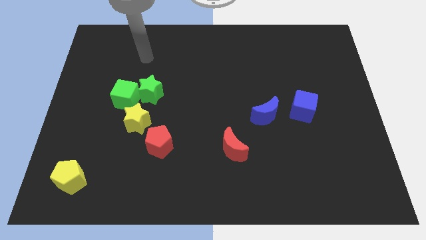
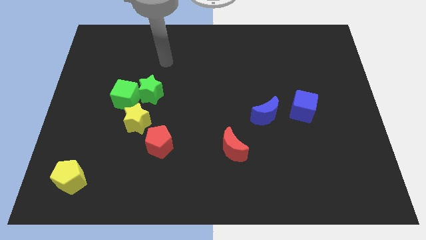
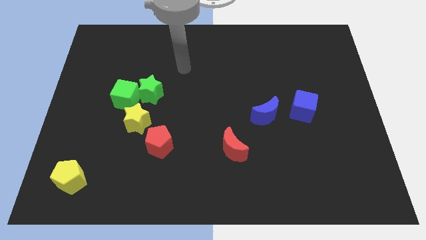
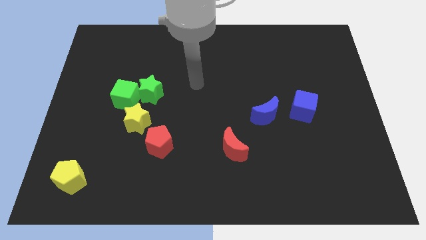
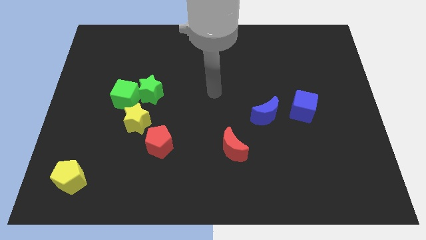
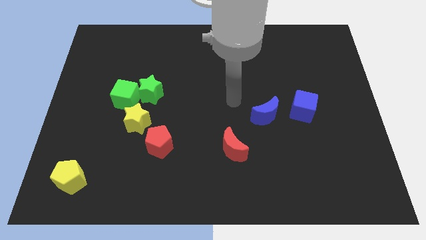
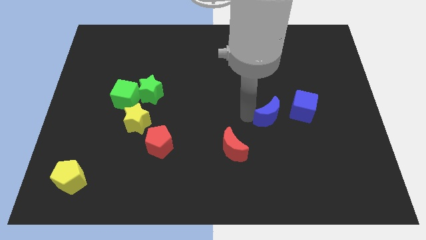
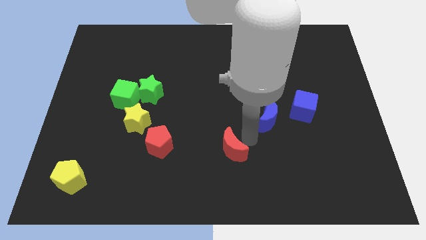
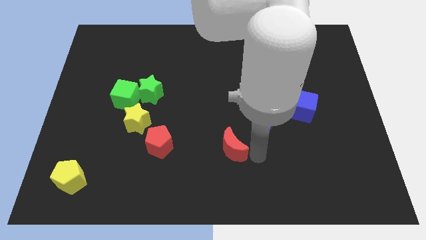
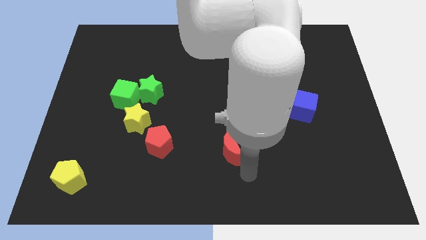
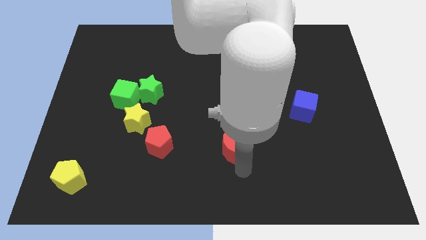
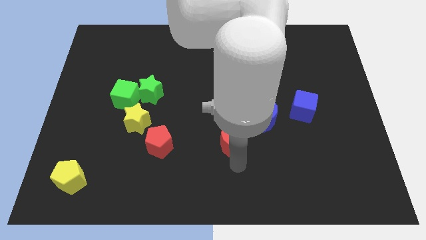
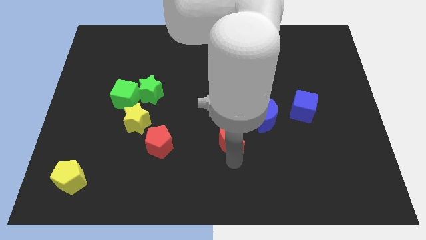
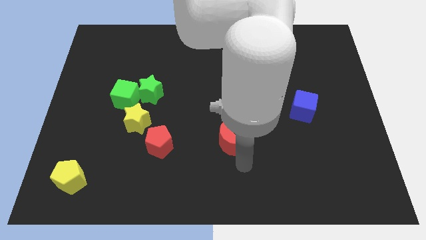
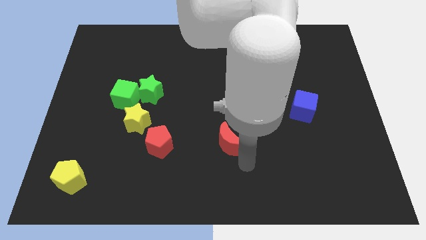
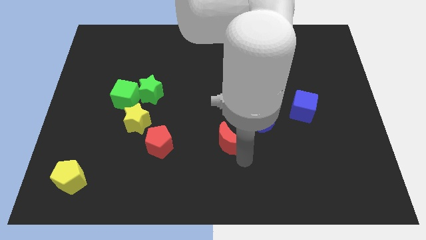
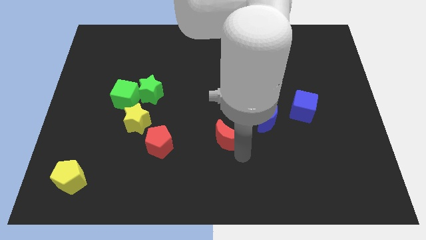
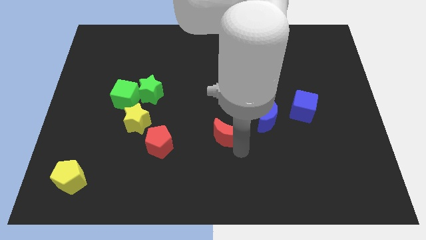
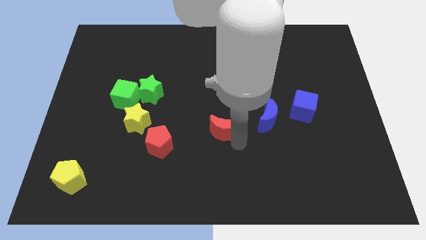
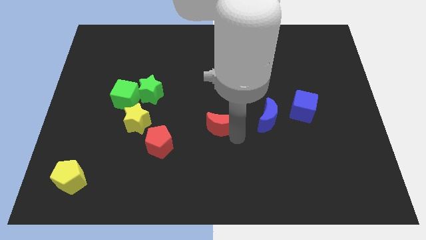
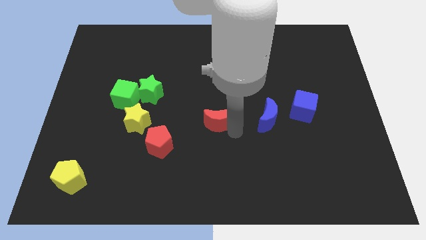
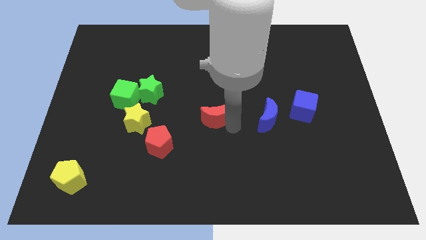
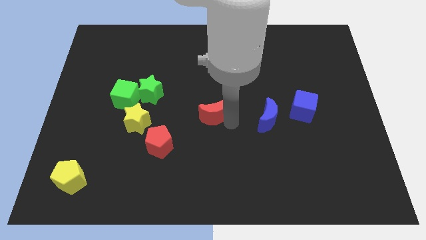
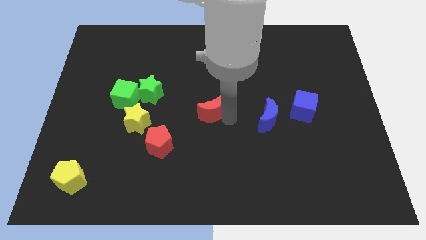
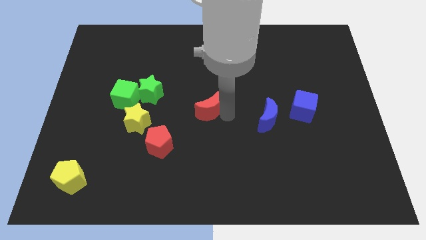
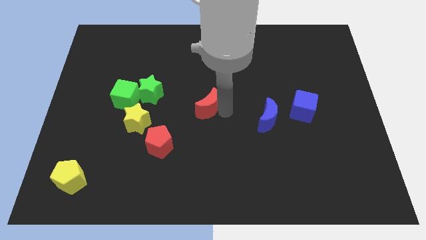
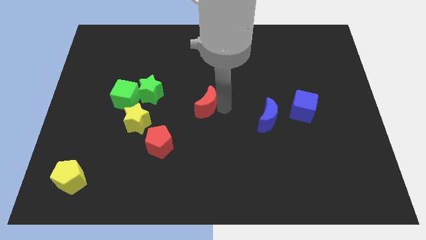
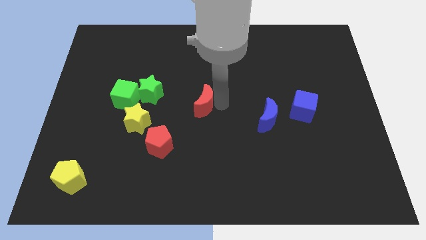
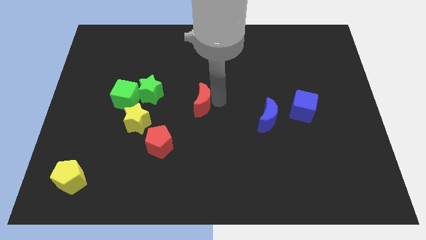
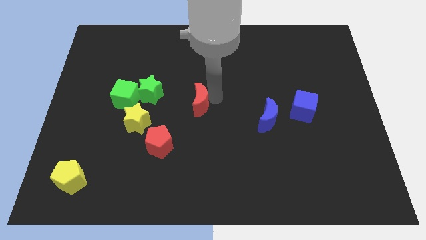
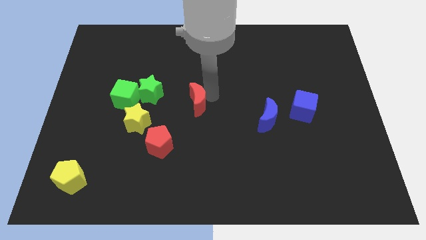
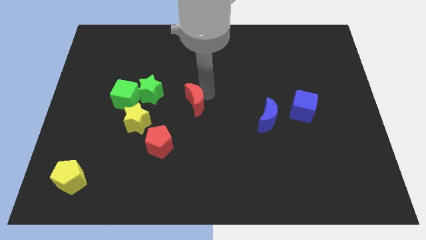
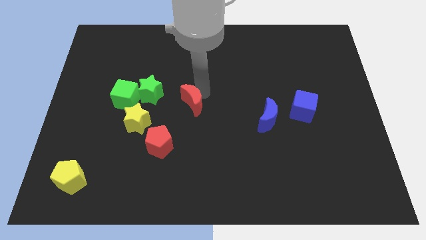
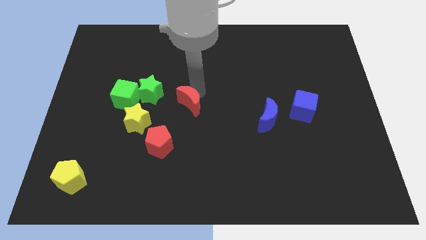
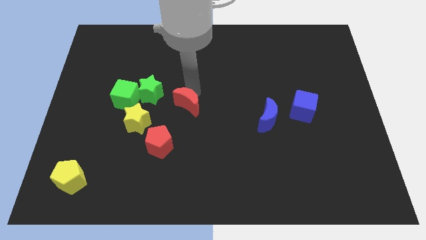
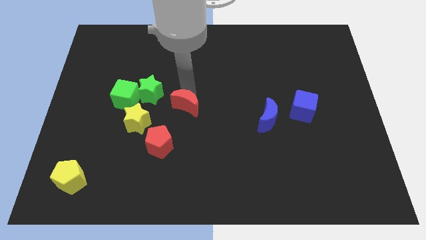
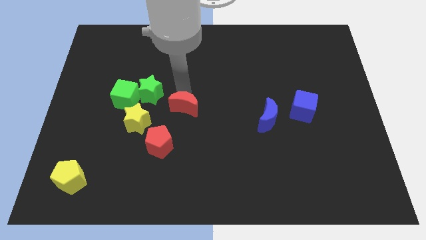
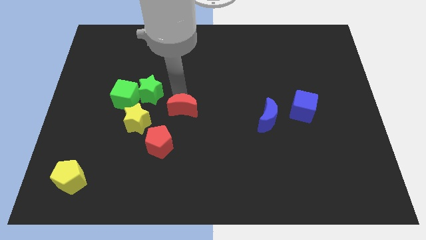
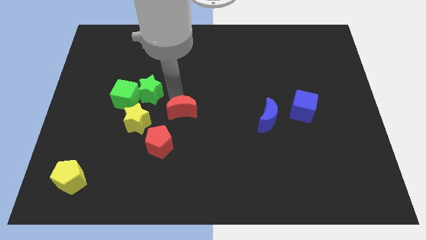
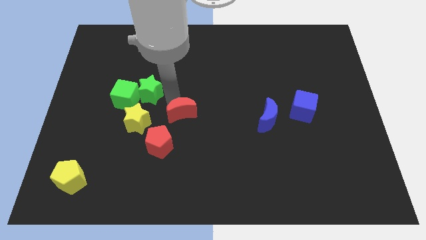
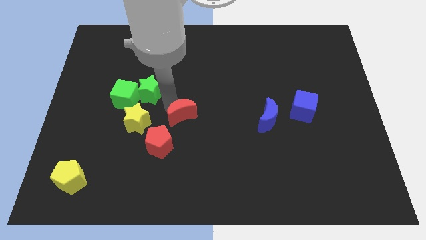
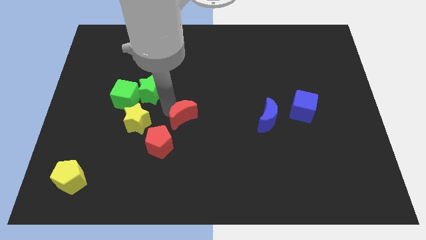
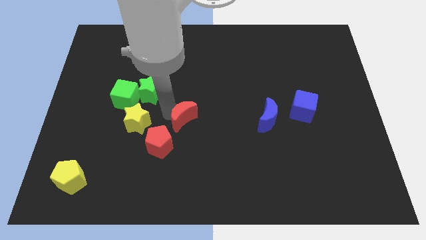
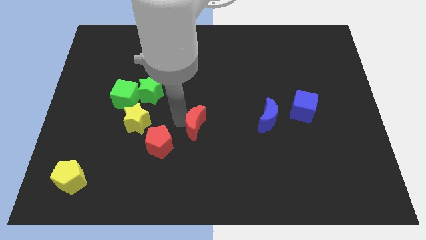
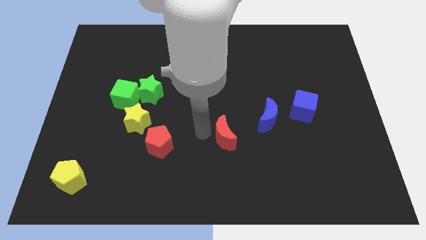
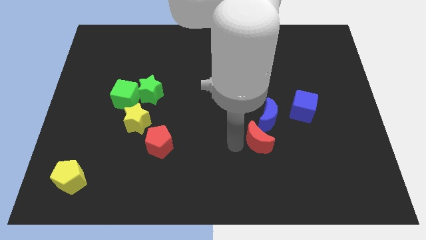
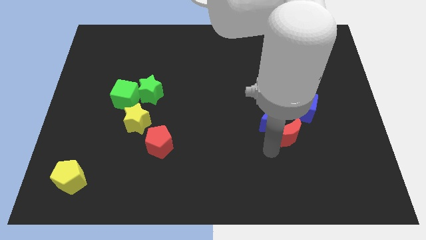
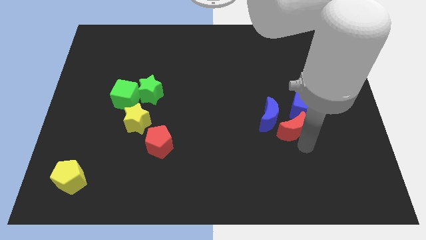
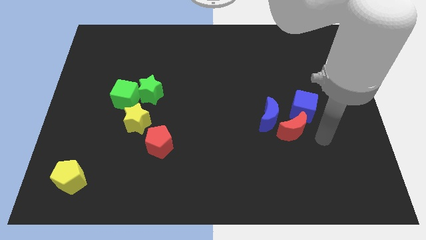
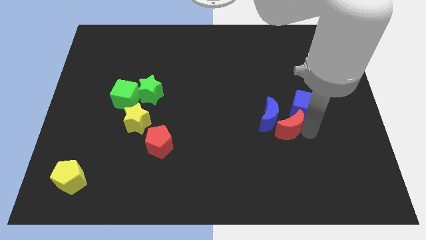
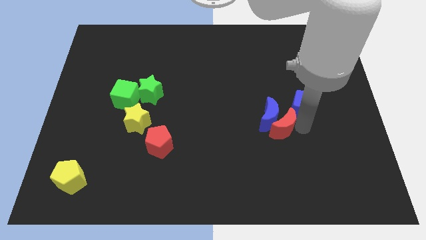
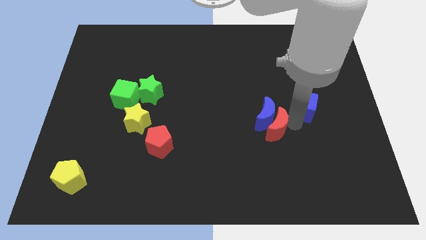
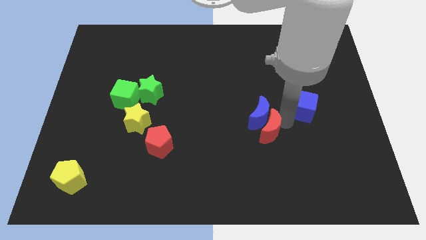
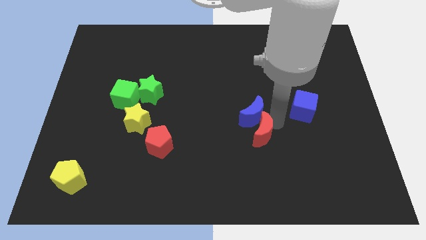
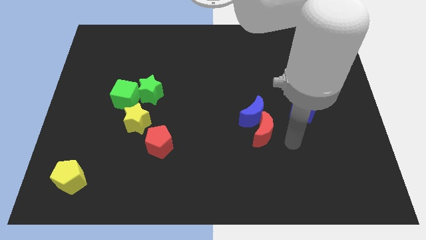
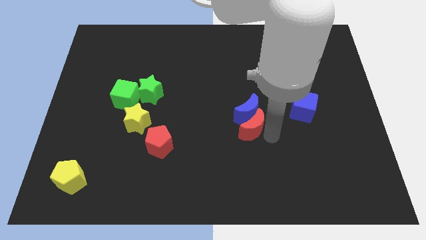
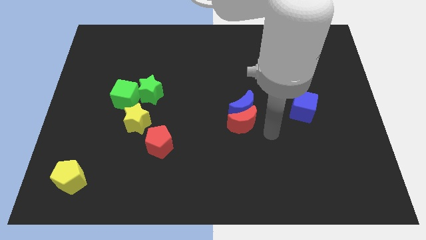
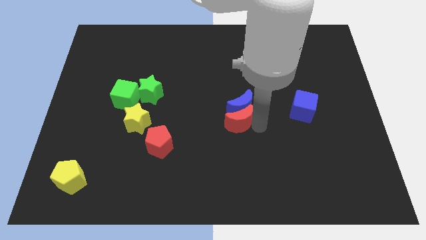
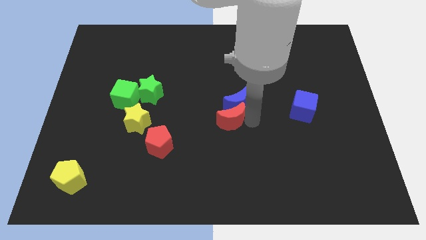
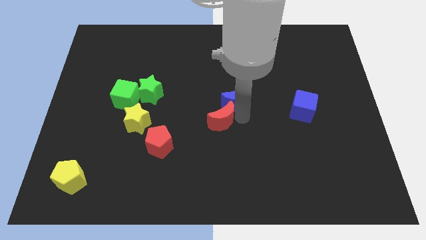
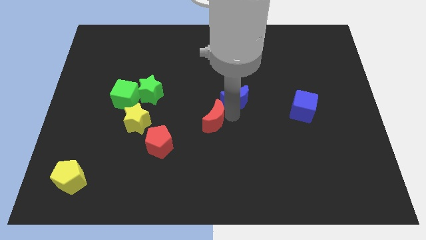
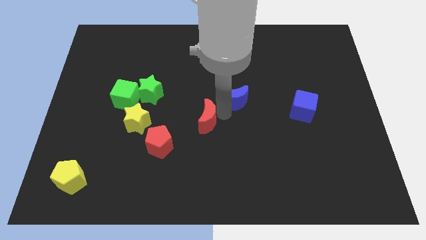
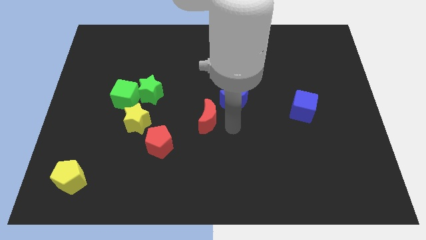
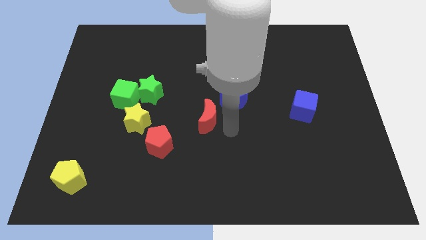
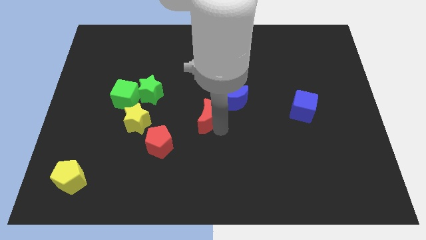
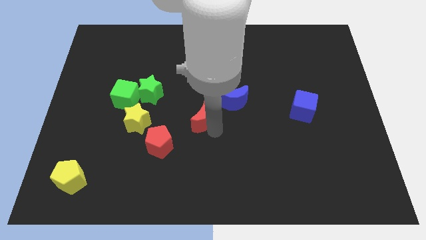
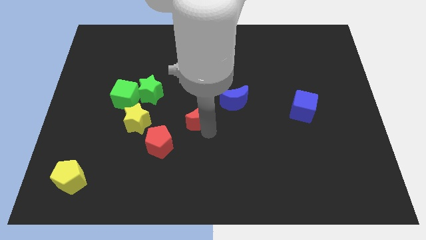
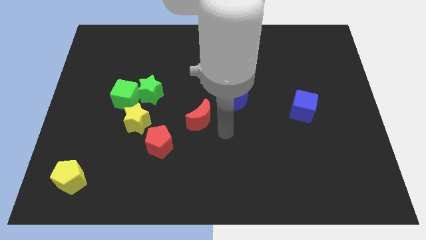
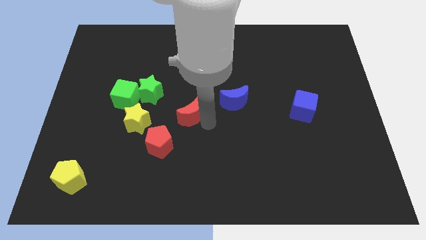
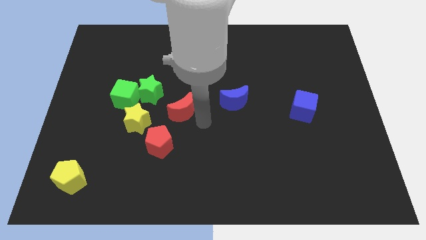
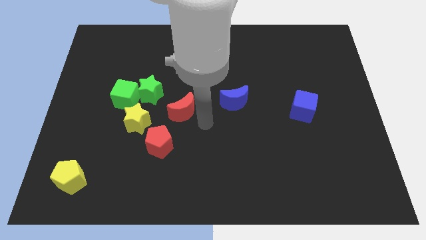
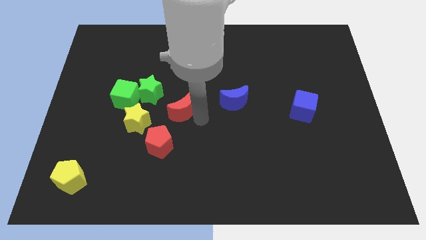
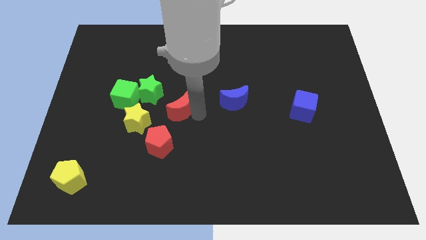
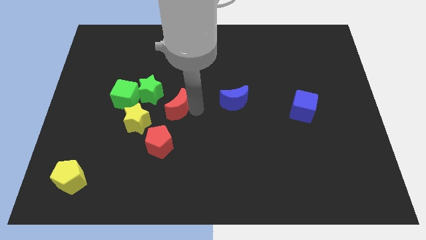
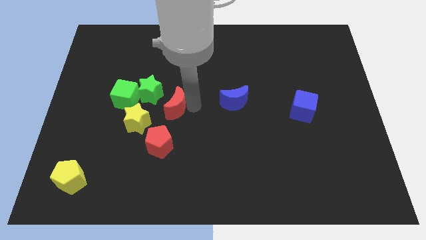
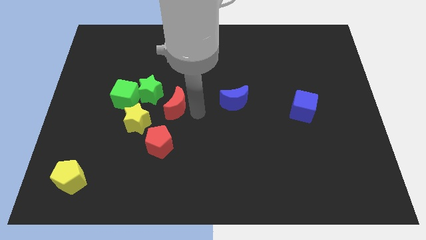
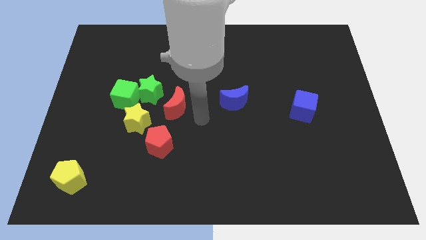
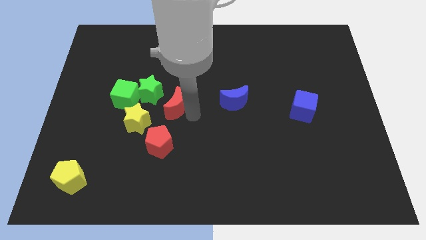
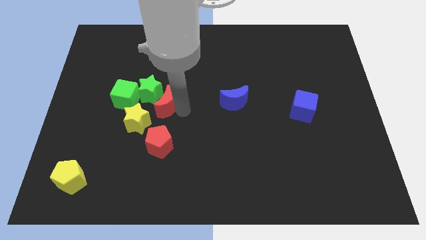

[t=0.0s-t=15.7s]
move the red moon to the green star
